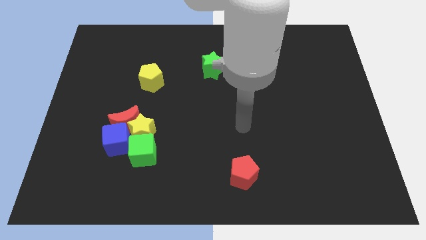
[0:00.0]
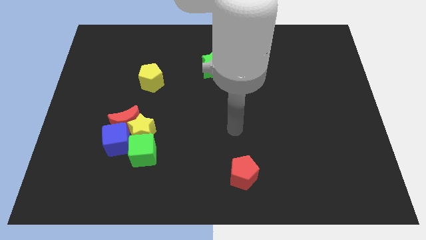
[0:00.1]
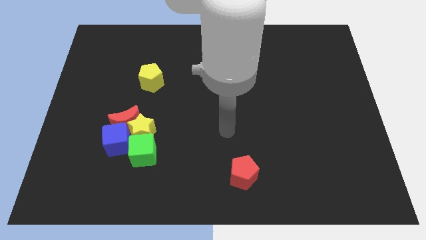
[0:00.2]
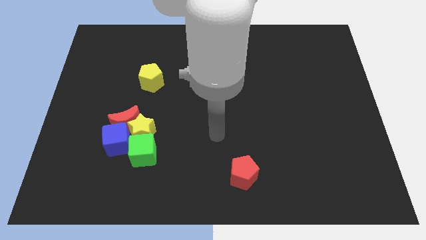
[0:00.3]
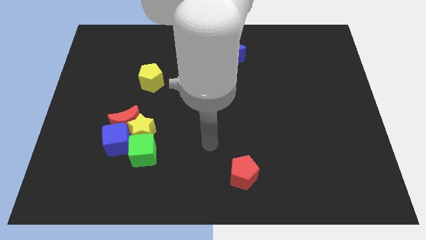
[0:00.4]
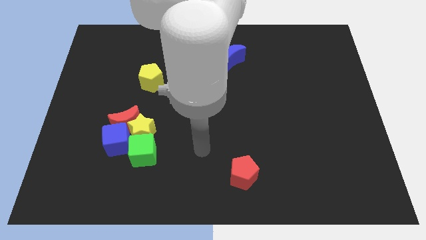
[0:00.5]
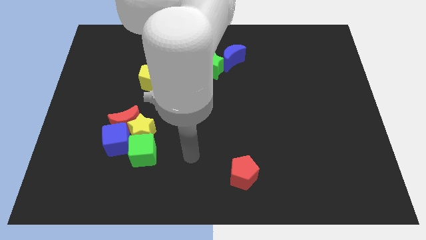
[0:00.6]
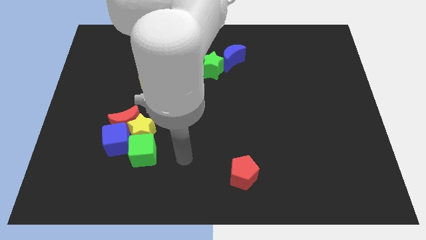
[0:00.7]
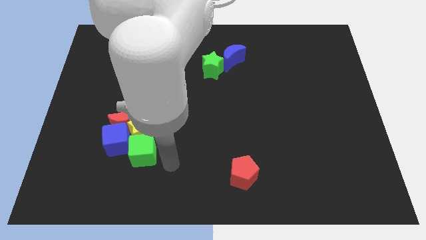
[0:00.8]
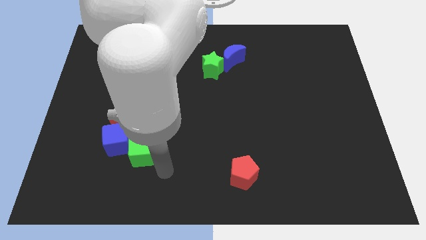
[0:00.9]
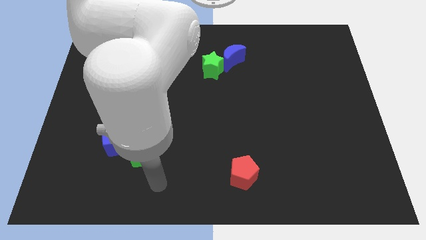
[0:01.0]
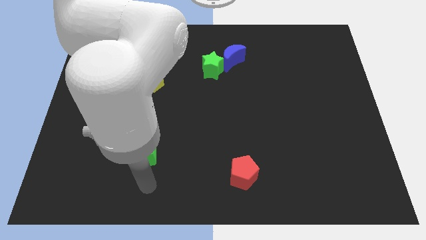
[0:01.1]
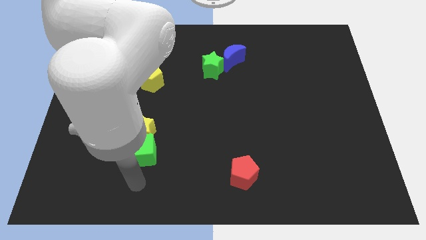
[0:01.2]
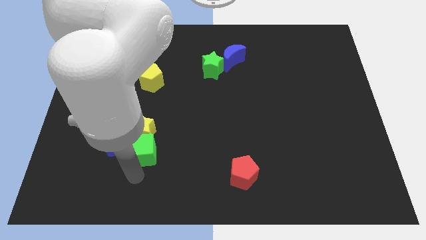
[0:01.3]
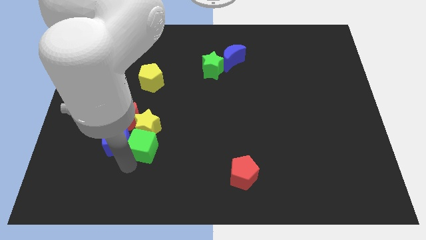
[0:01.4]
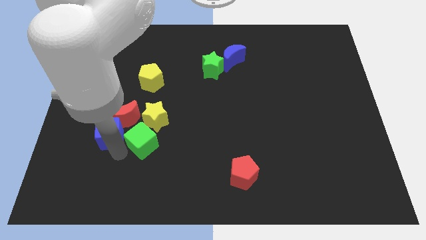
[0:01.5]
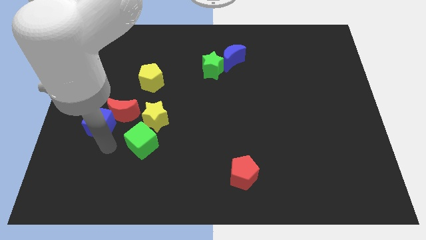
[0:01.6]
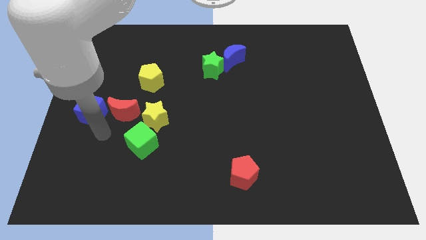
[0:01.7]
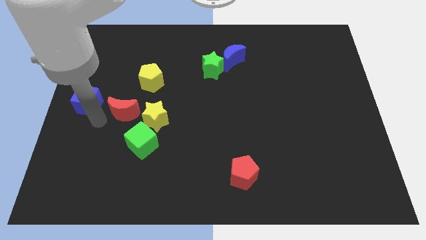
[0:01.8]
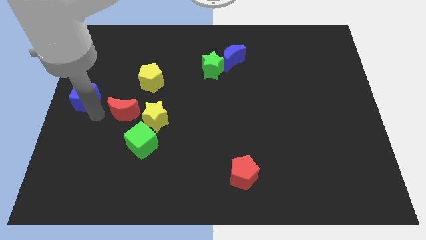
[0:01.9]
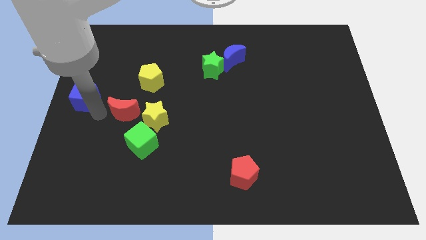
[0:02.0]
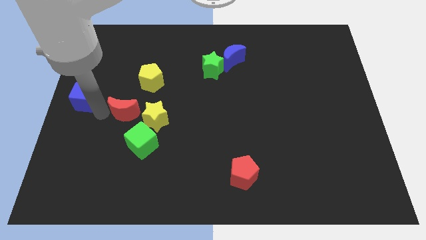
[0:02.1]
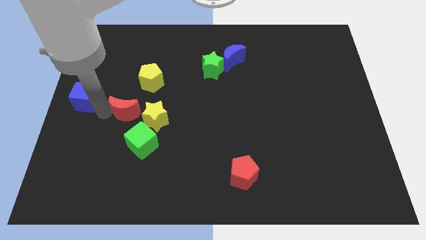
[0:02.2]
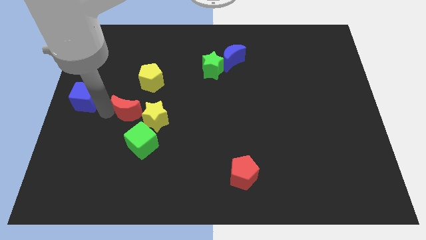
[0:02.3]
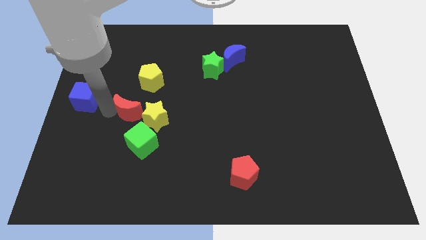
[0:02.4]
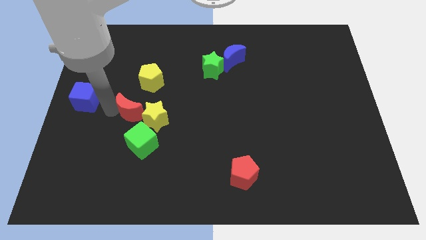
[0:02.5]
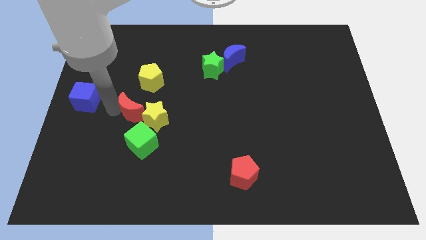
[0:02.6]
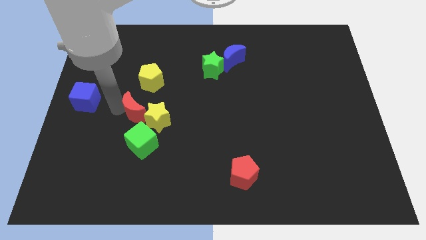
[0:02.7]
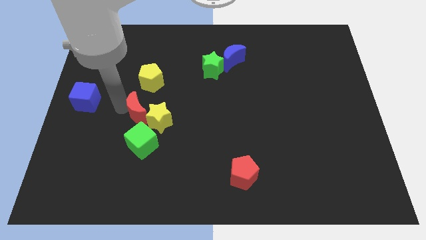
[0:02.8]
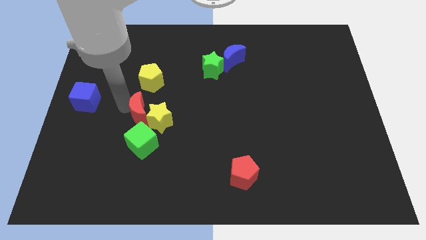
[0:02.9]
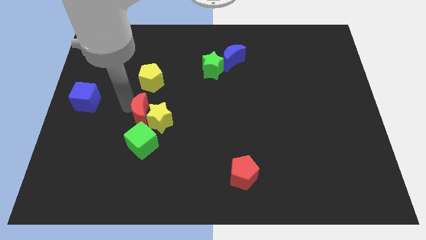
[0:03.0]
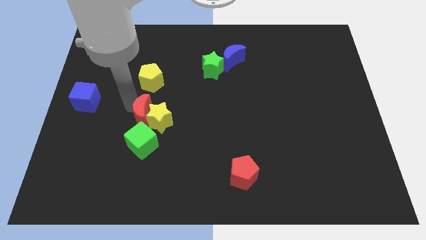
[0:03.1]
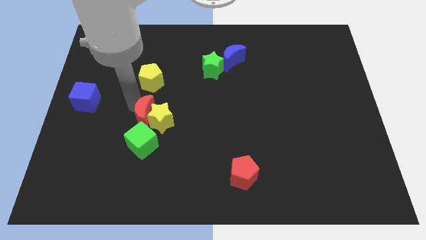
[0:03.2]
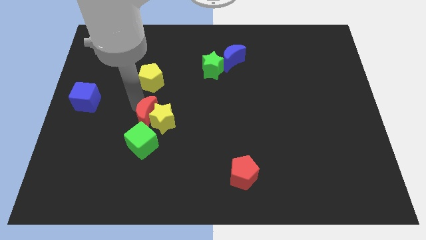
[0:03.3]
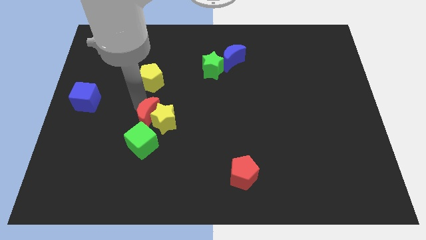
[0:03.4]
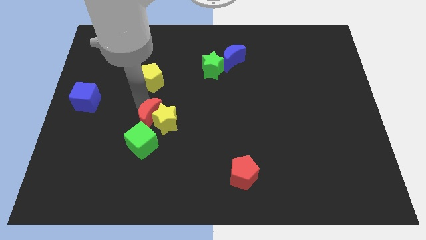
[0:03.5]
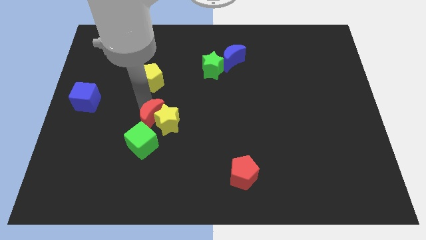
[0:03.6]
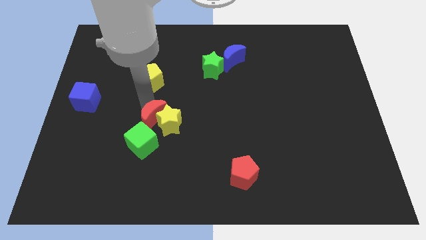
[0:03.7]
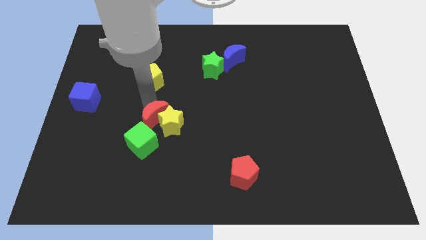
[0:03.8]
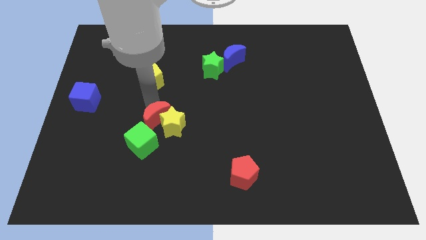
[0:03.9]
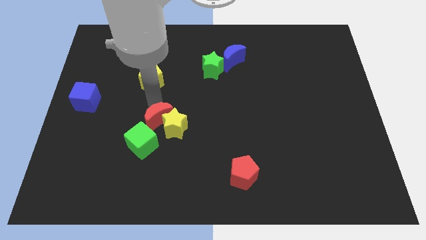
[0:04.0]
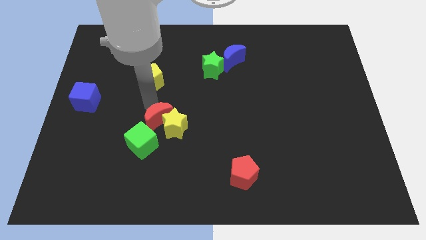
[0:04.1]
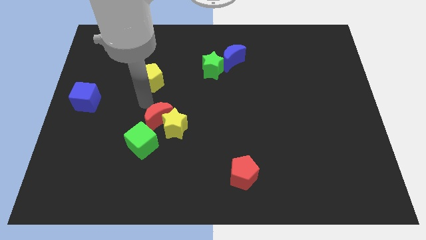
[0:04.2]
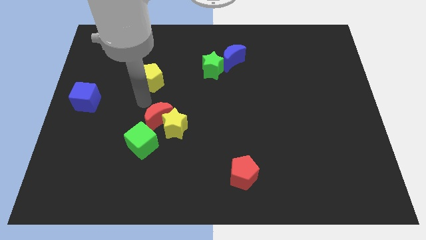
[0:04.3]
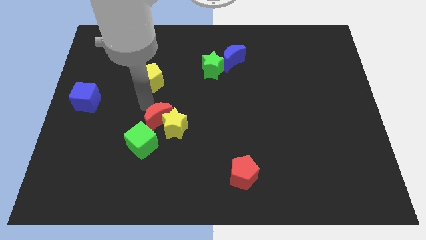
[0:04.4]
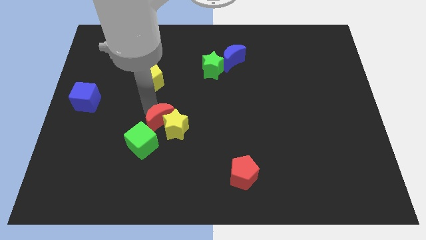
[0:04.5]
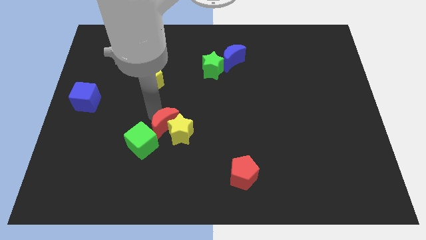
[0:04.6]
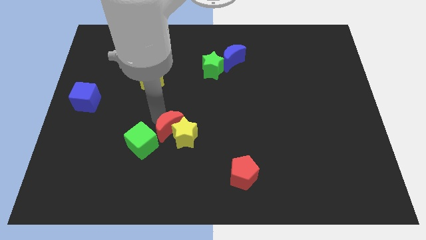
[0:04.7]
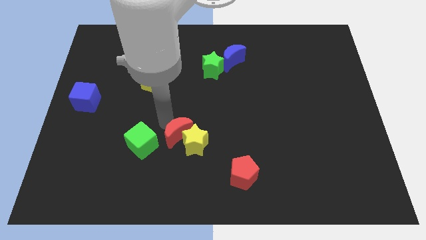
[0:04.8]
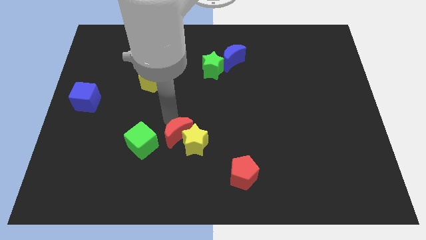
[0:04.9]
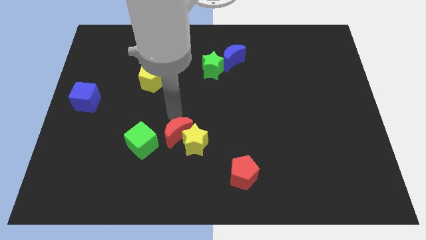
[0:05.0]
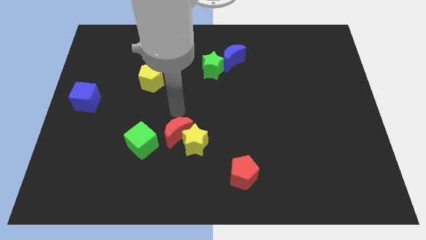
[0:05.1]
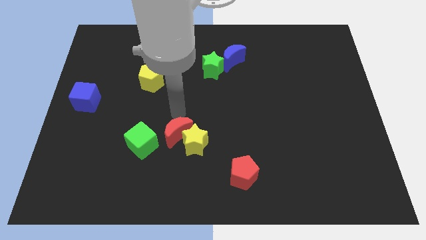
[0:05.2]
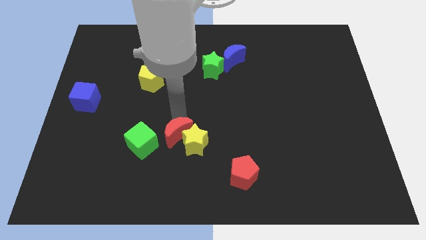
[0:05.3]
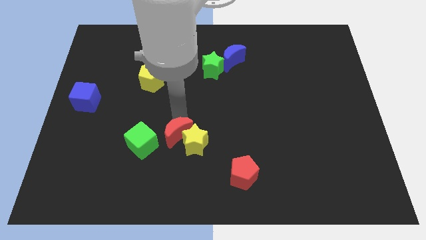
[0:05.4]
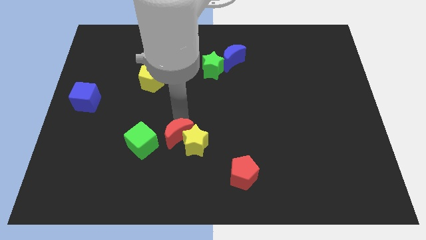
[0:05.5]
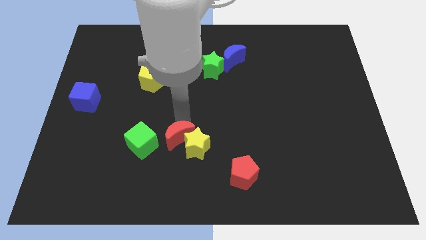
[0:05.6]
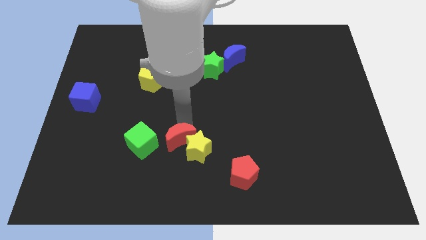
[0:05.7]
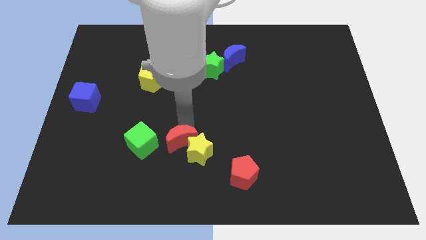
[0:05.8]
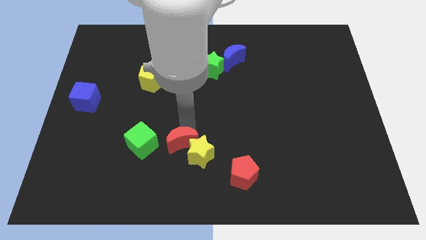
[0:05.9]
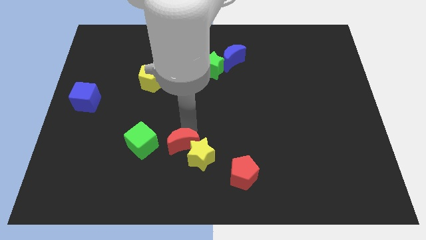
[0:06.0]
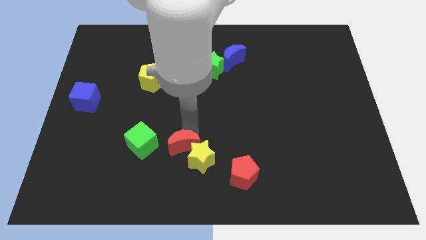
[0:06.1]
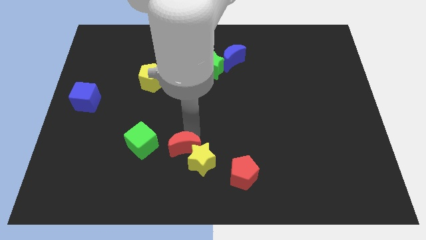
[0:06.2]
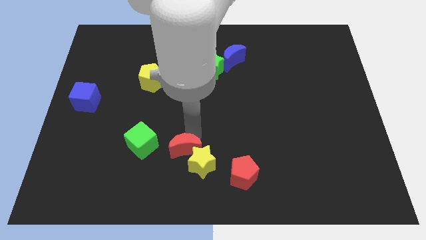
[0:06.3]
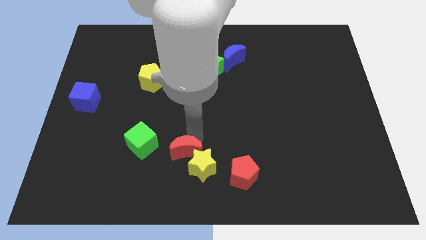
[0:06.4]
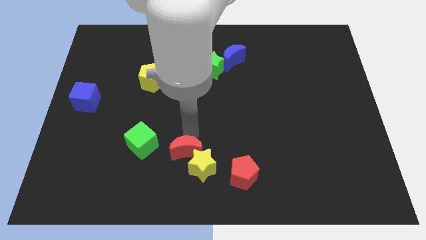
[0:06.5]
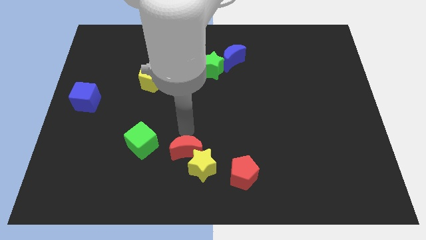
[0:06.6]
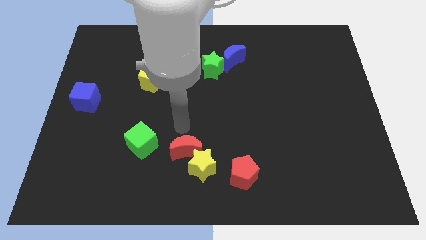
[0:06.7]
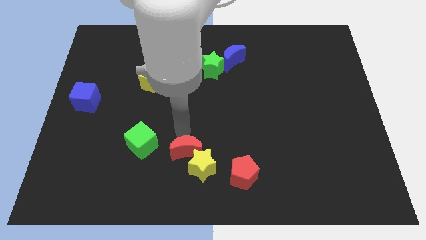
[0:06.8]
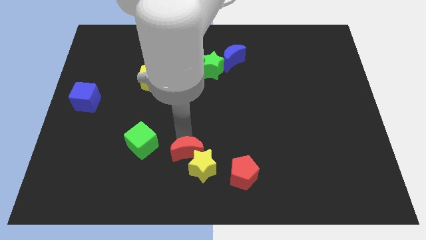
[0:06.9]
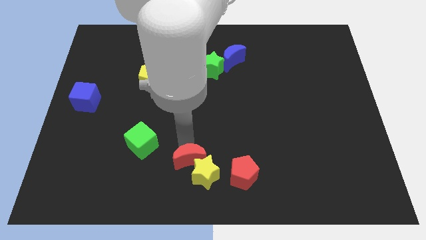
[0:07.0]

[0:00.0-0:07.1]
move the red moon just left of the red pentagon
